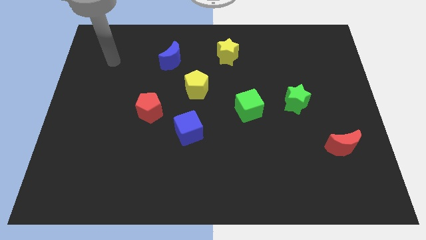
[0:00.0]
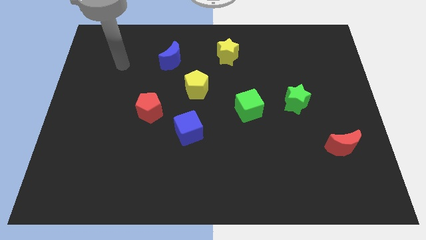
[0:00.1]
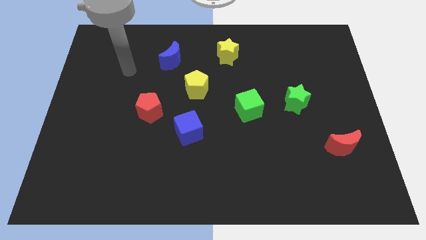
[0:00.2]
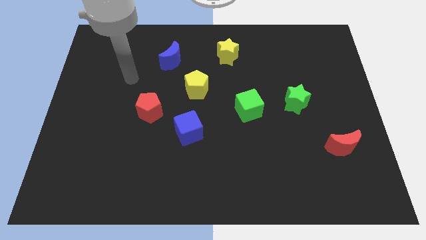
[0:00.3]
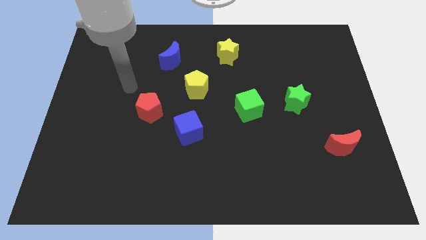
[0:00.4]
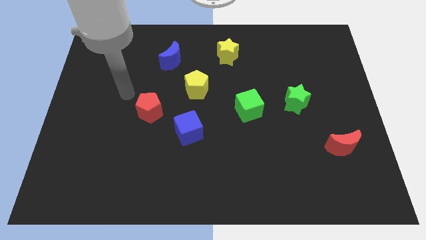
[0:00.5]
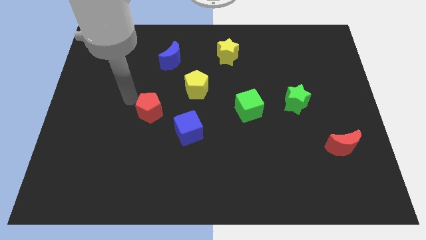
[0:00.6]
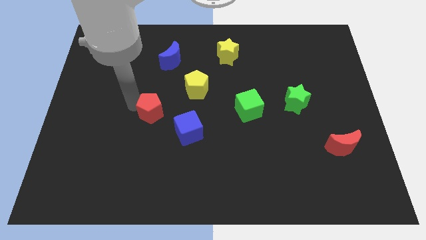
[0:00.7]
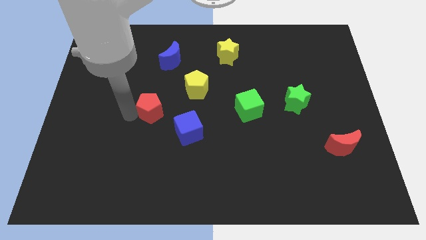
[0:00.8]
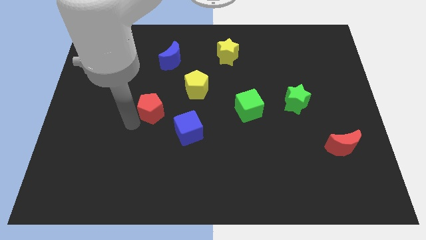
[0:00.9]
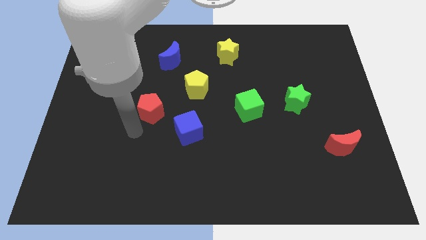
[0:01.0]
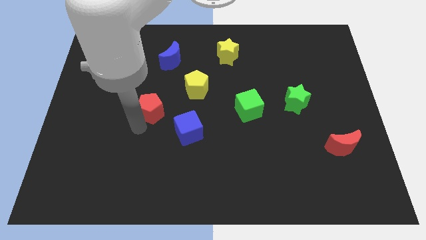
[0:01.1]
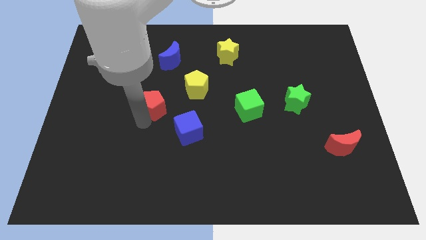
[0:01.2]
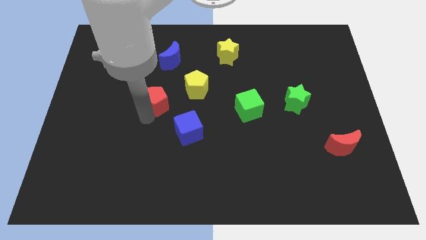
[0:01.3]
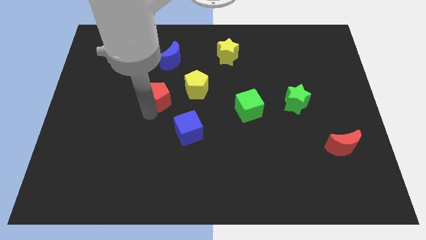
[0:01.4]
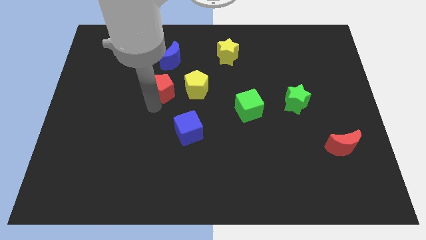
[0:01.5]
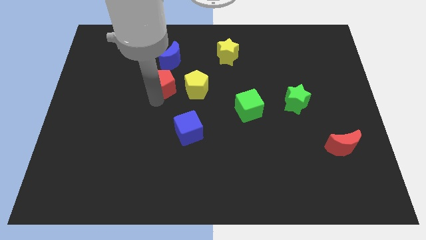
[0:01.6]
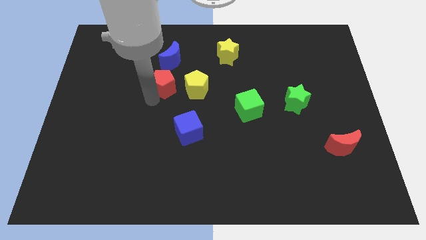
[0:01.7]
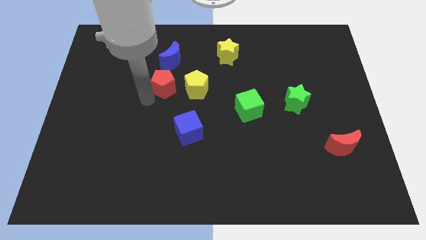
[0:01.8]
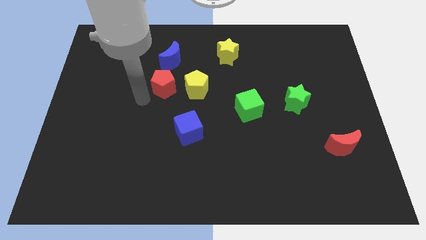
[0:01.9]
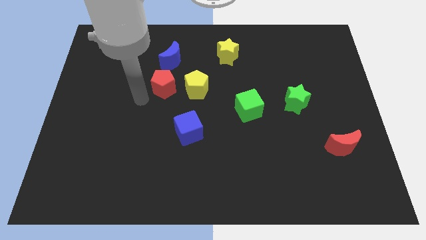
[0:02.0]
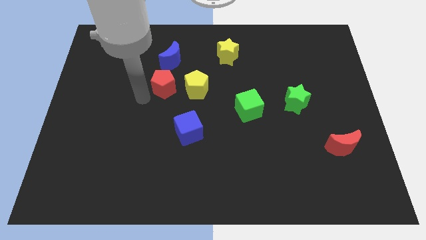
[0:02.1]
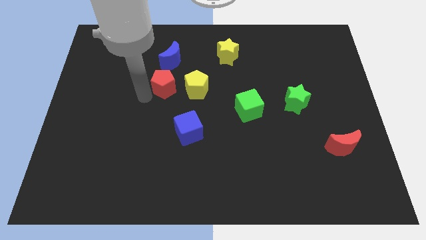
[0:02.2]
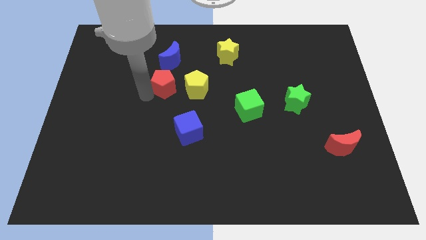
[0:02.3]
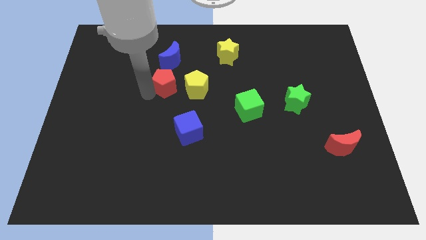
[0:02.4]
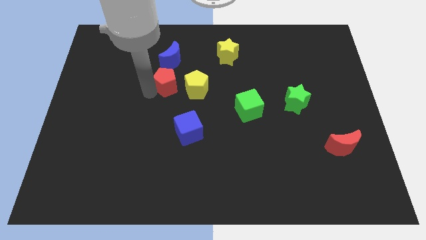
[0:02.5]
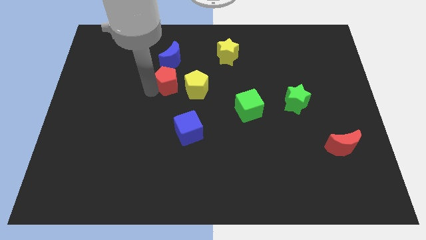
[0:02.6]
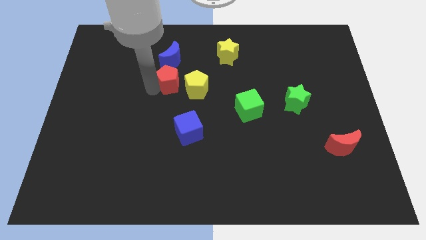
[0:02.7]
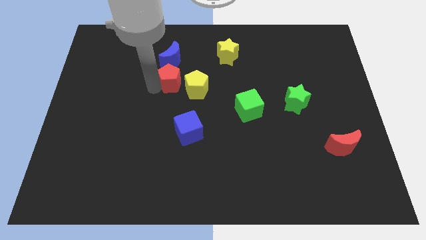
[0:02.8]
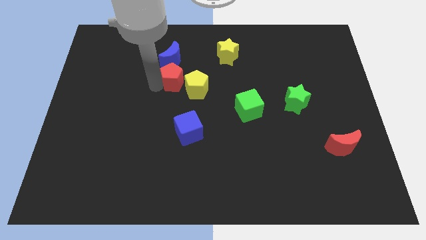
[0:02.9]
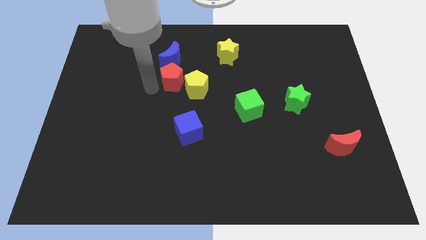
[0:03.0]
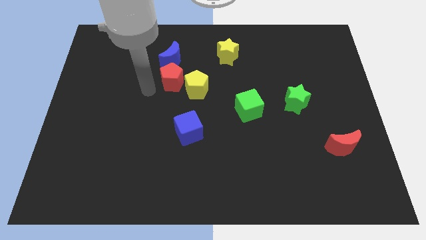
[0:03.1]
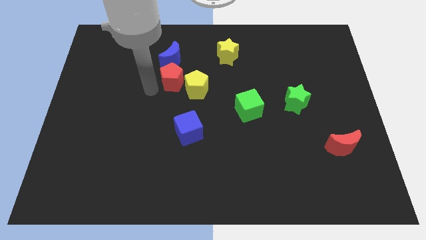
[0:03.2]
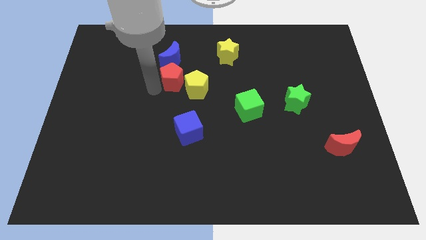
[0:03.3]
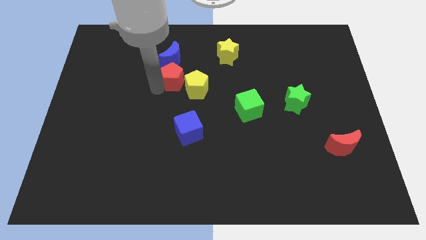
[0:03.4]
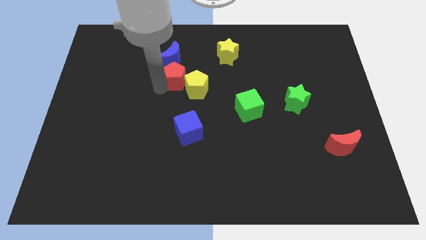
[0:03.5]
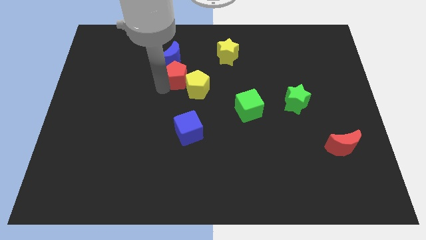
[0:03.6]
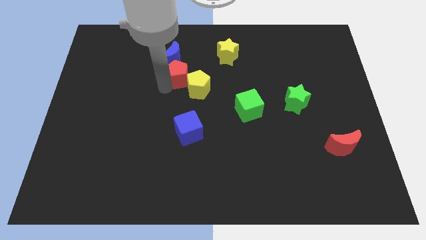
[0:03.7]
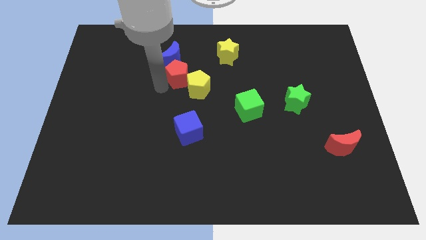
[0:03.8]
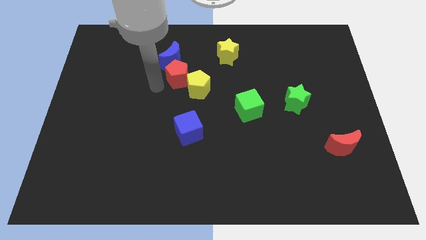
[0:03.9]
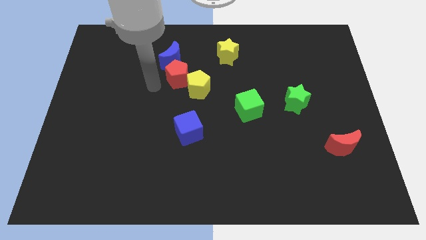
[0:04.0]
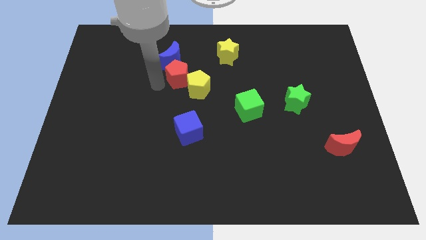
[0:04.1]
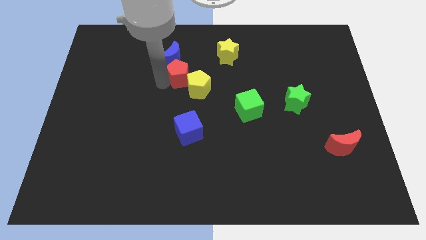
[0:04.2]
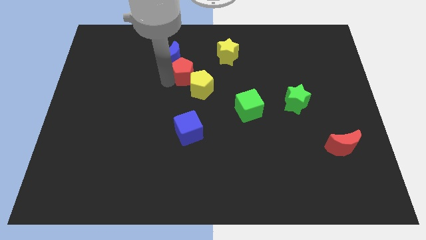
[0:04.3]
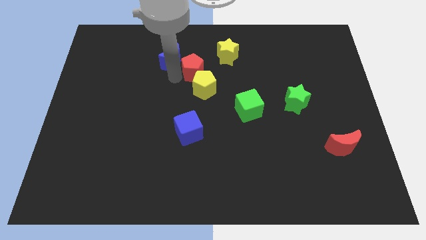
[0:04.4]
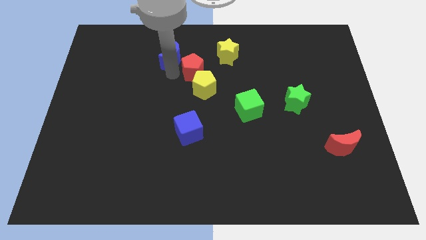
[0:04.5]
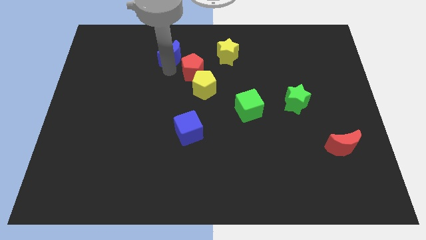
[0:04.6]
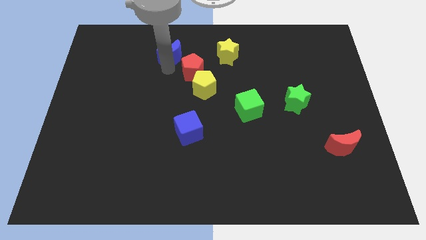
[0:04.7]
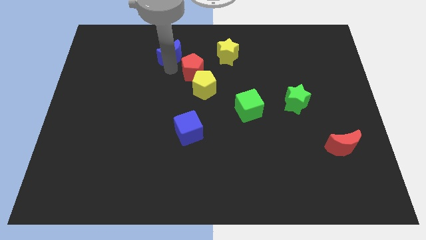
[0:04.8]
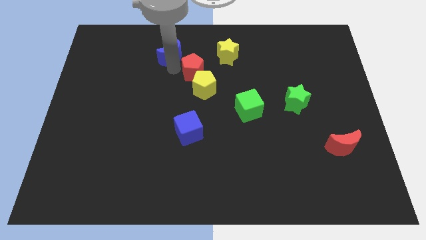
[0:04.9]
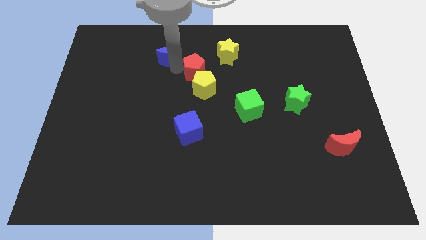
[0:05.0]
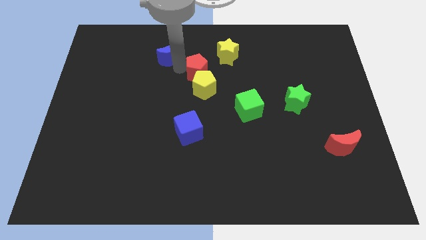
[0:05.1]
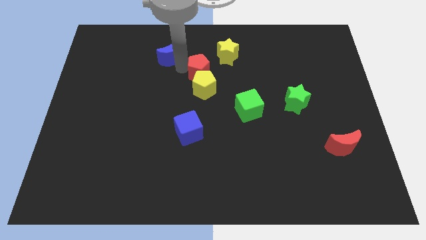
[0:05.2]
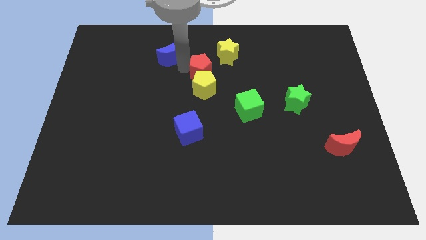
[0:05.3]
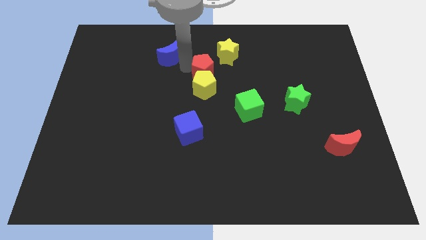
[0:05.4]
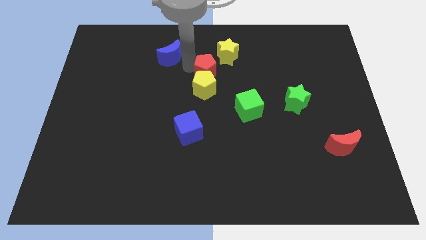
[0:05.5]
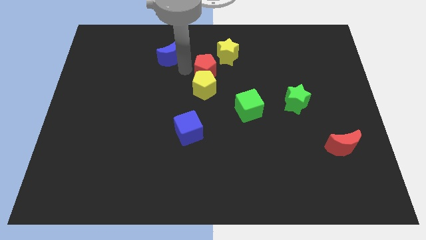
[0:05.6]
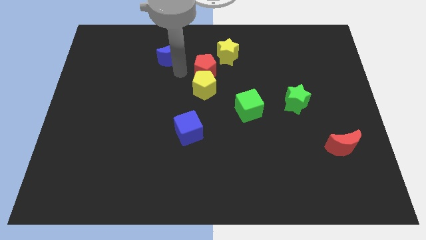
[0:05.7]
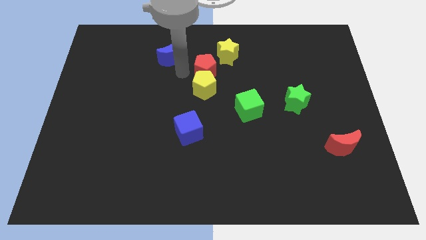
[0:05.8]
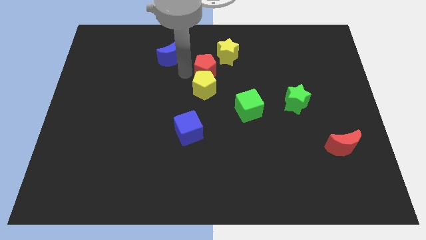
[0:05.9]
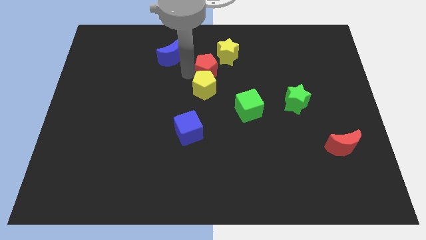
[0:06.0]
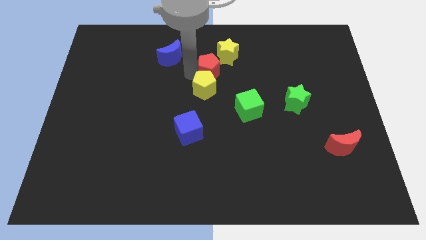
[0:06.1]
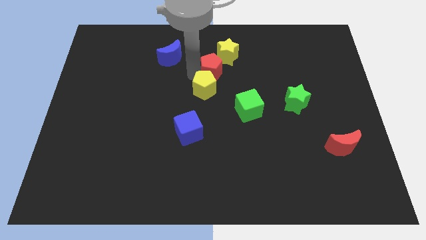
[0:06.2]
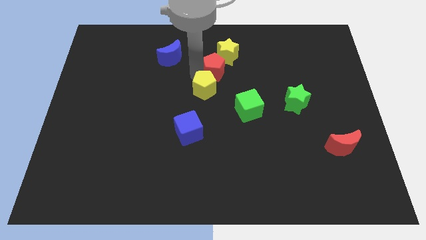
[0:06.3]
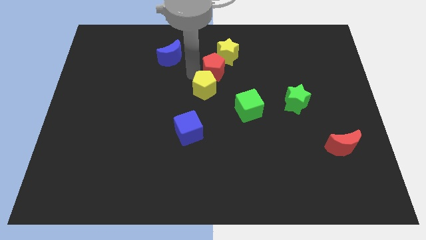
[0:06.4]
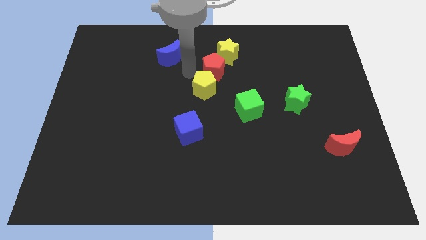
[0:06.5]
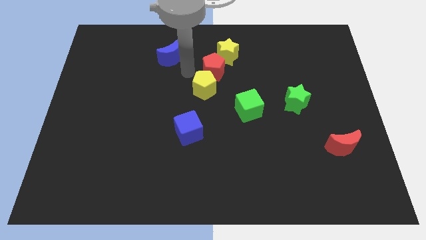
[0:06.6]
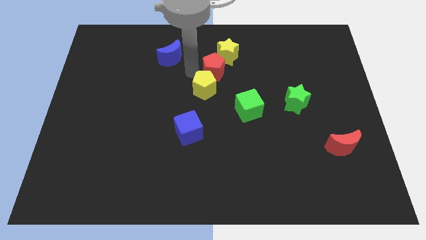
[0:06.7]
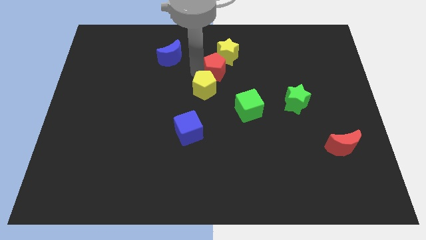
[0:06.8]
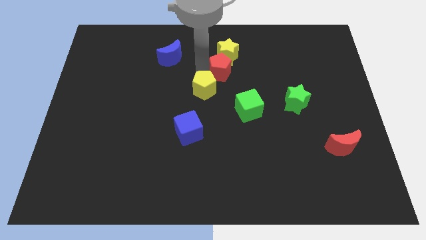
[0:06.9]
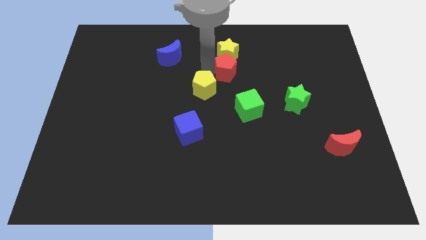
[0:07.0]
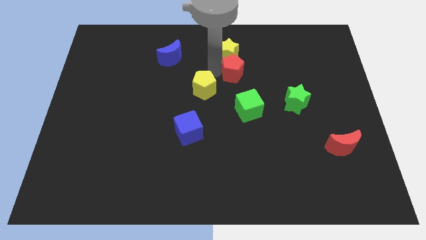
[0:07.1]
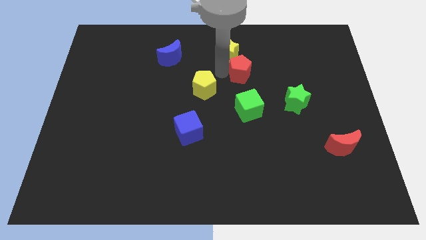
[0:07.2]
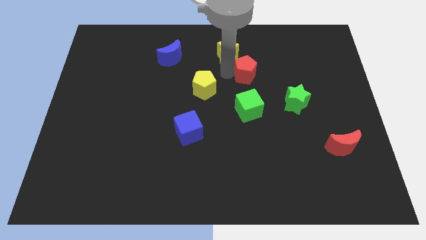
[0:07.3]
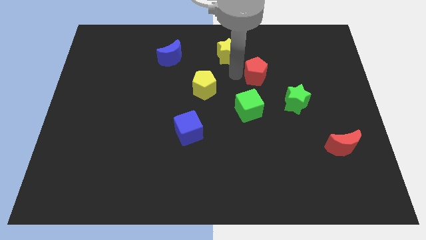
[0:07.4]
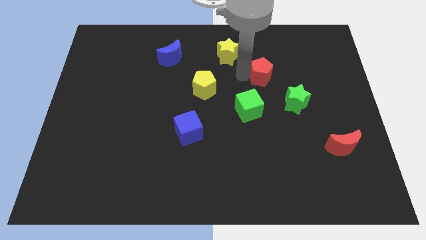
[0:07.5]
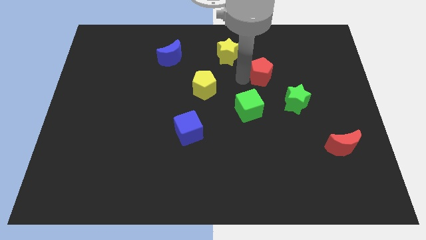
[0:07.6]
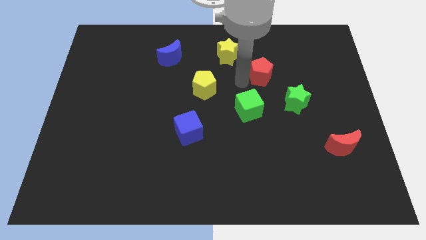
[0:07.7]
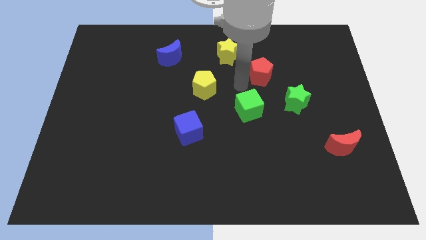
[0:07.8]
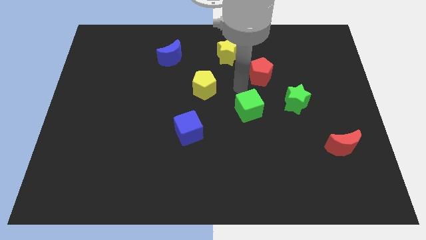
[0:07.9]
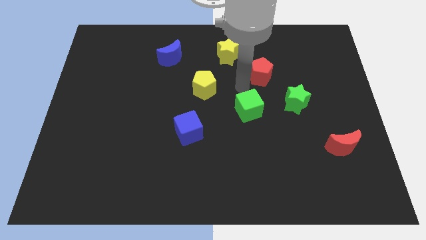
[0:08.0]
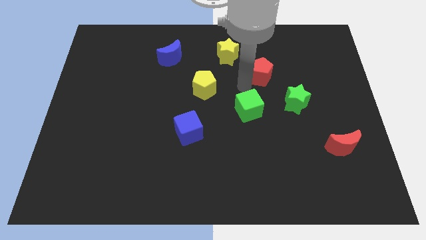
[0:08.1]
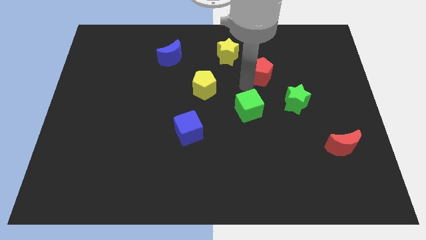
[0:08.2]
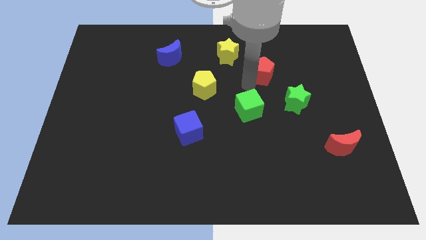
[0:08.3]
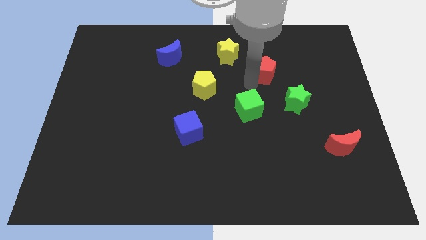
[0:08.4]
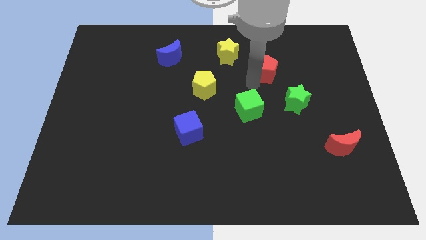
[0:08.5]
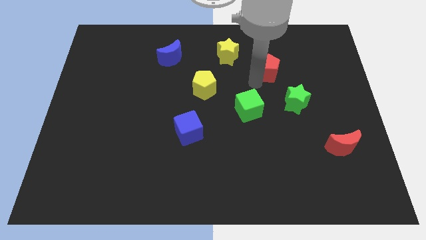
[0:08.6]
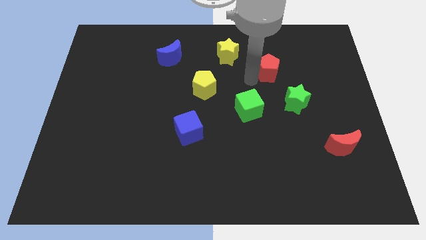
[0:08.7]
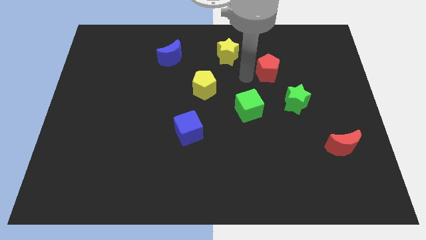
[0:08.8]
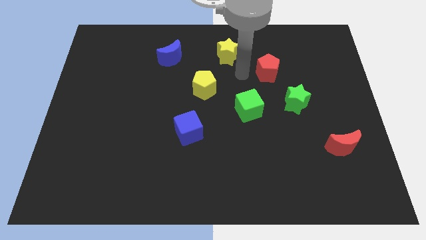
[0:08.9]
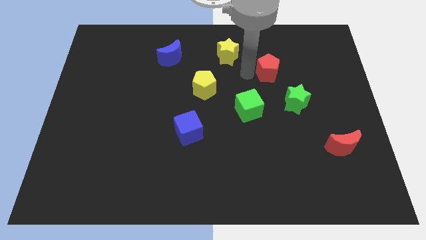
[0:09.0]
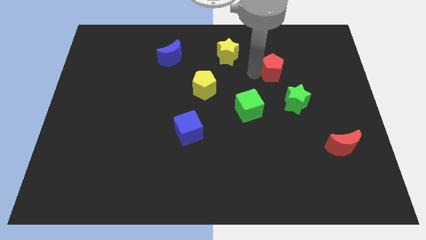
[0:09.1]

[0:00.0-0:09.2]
put the red pentagon to the top side of the green star
